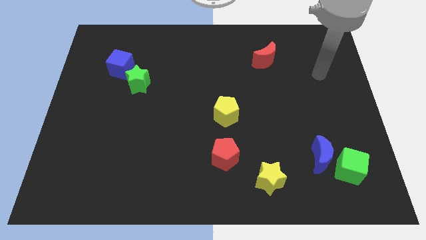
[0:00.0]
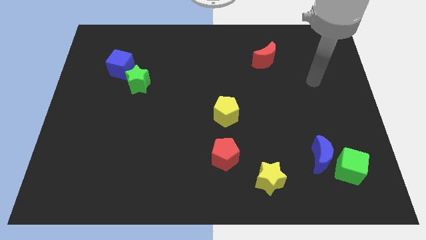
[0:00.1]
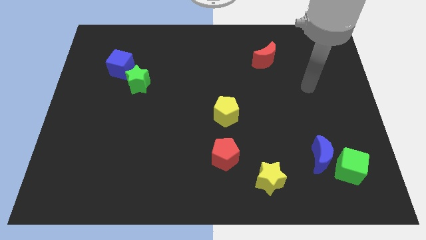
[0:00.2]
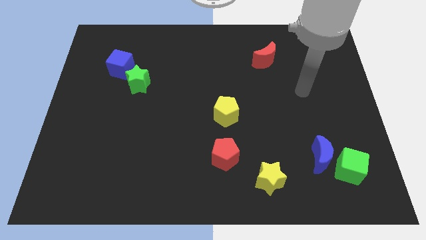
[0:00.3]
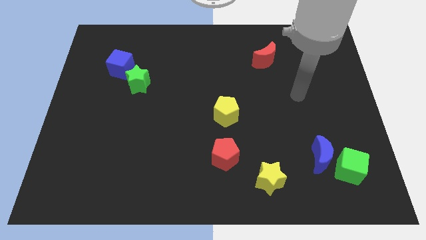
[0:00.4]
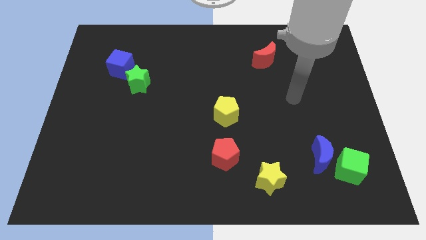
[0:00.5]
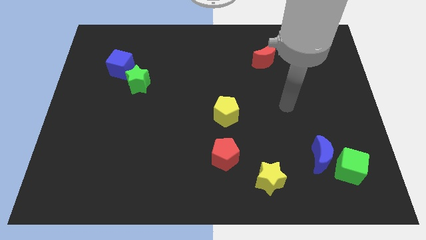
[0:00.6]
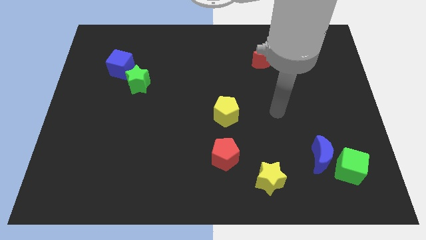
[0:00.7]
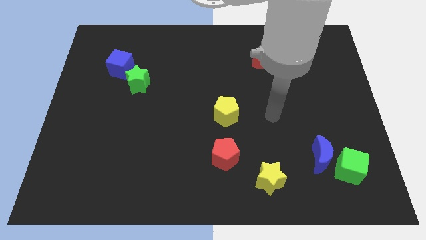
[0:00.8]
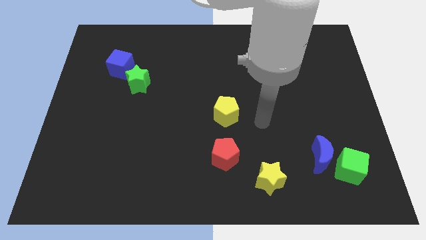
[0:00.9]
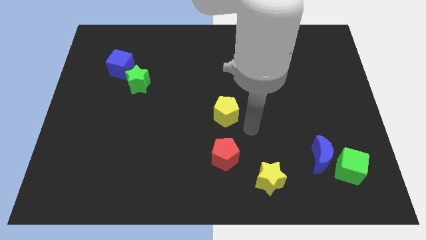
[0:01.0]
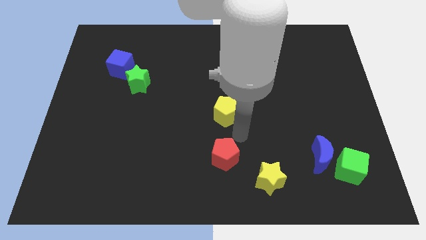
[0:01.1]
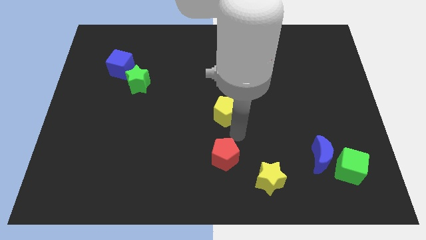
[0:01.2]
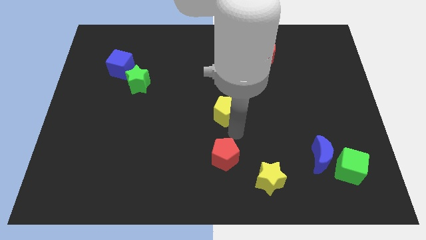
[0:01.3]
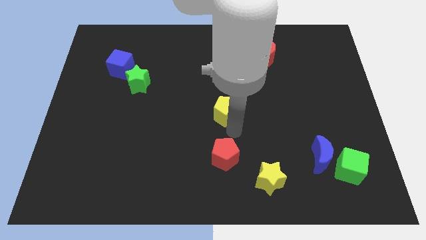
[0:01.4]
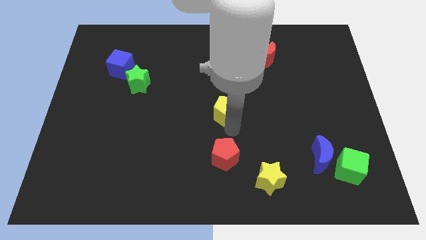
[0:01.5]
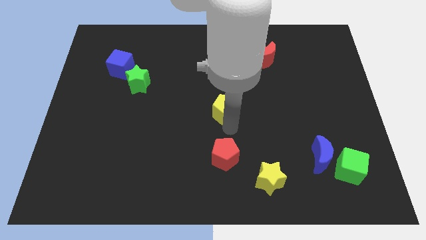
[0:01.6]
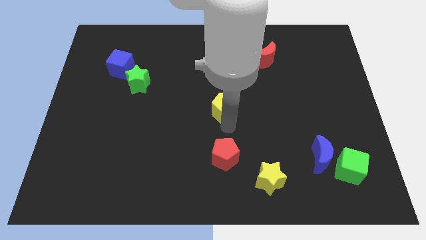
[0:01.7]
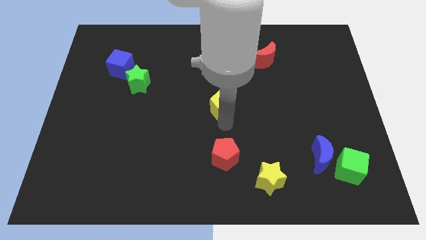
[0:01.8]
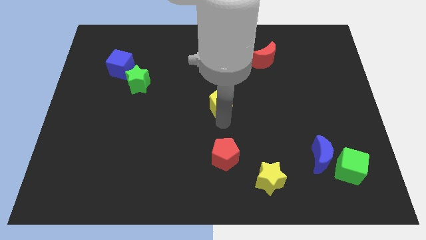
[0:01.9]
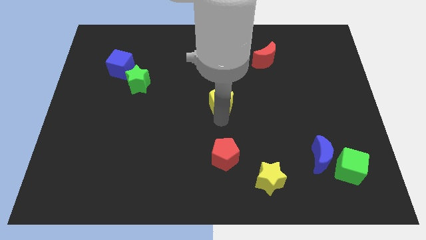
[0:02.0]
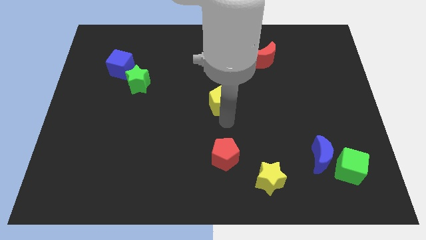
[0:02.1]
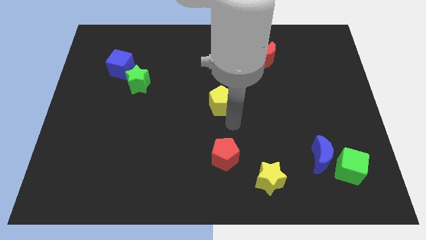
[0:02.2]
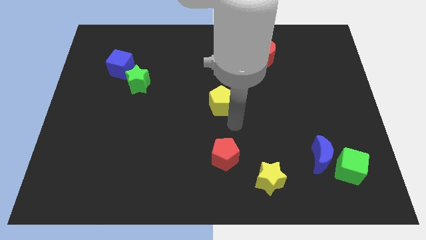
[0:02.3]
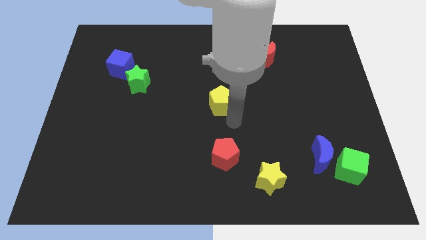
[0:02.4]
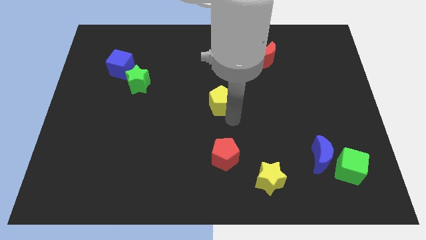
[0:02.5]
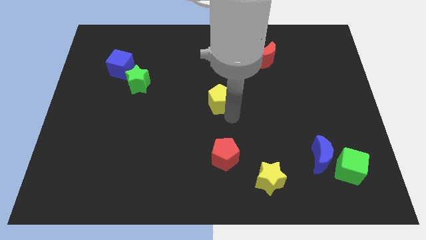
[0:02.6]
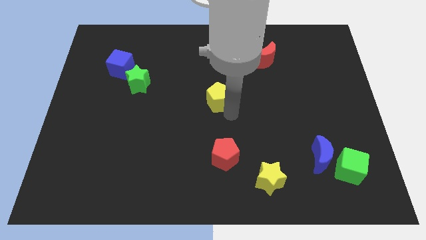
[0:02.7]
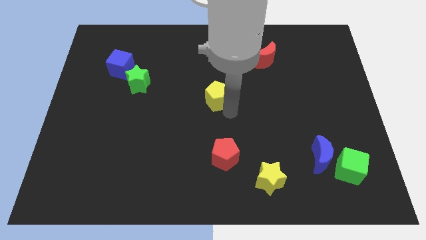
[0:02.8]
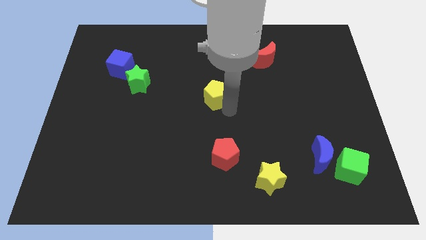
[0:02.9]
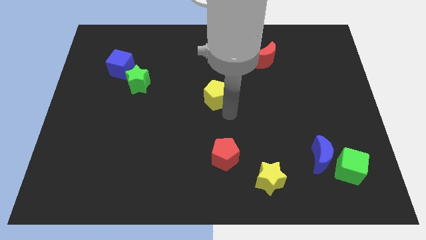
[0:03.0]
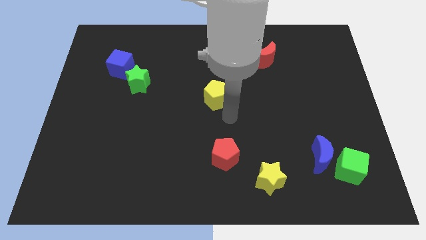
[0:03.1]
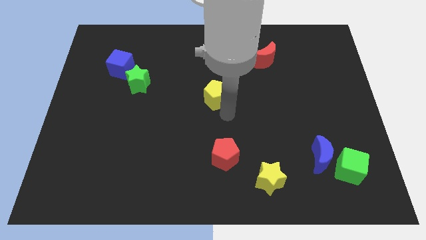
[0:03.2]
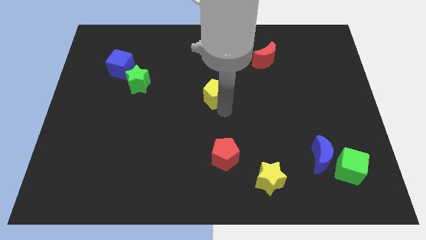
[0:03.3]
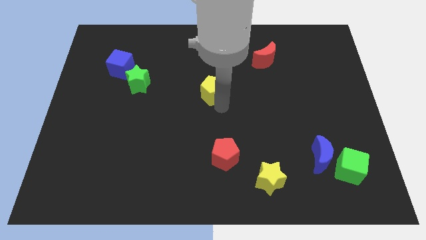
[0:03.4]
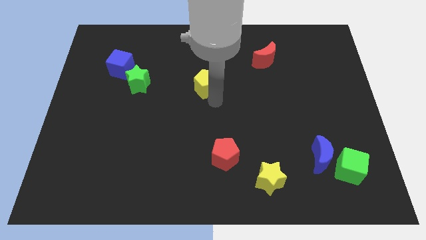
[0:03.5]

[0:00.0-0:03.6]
move the yellow pentagon a little bit up

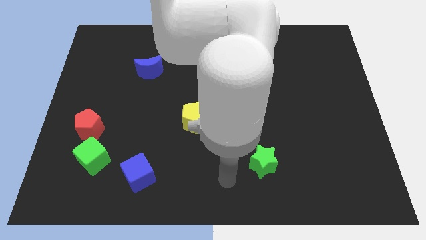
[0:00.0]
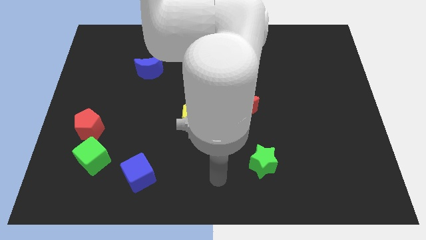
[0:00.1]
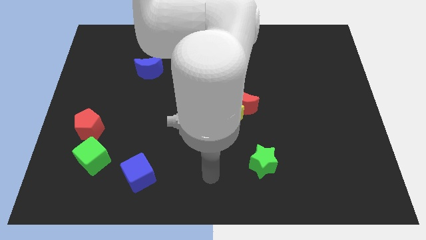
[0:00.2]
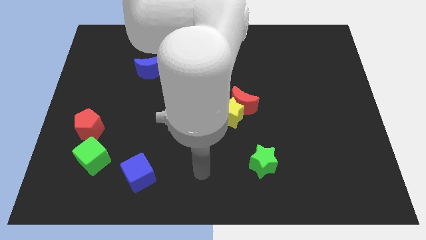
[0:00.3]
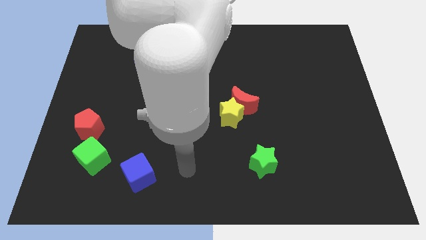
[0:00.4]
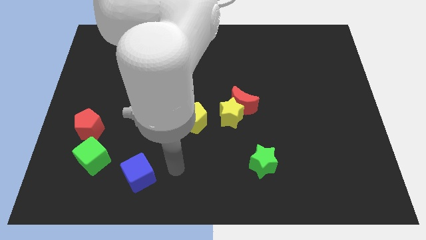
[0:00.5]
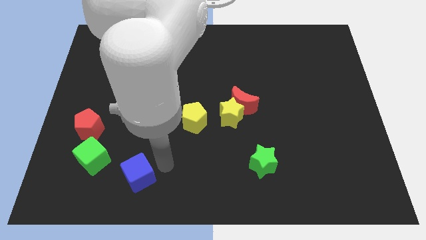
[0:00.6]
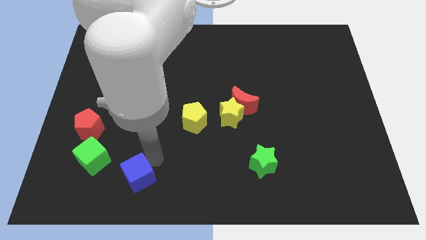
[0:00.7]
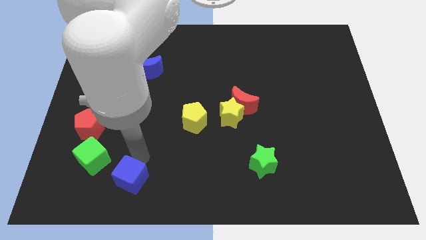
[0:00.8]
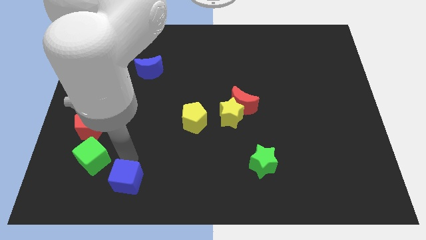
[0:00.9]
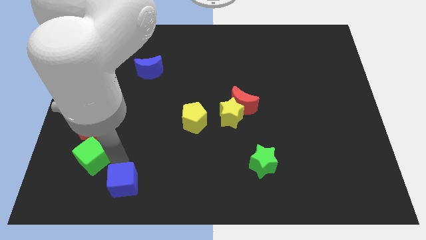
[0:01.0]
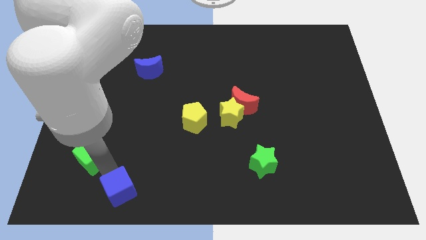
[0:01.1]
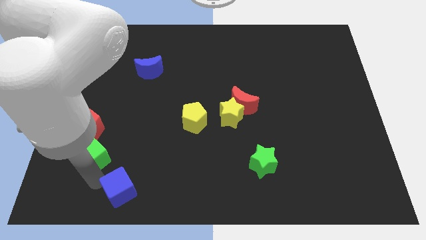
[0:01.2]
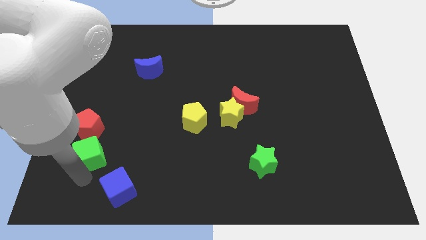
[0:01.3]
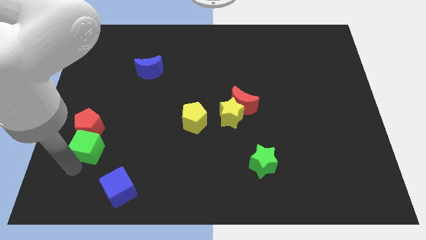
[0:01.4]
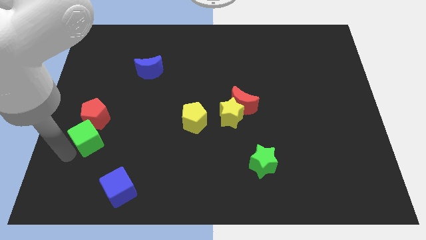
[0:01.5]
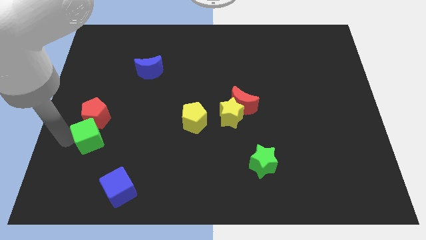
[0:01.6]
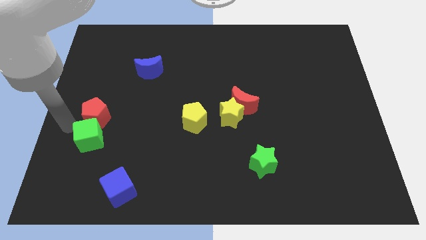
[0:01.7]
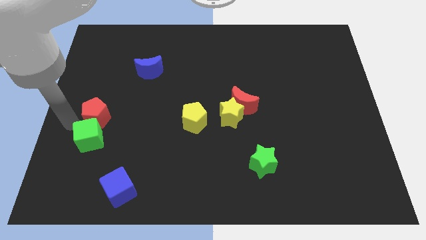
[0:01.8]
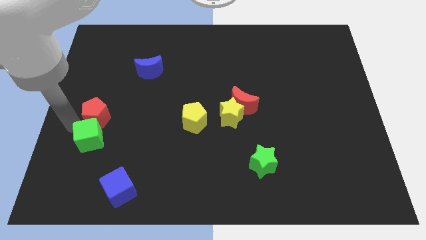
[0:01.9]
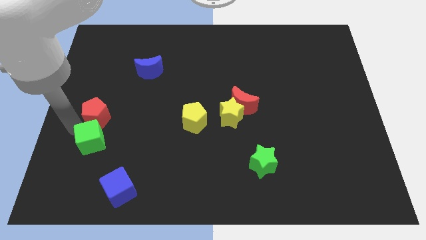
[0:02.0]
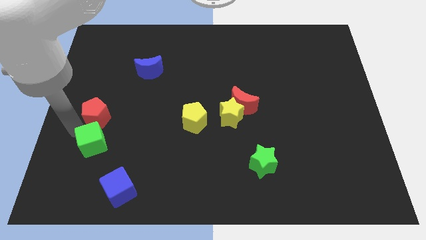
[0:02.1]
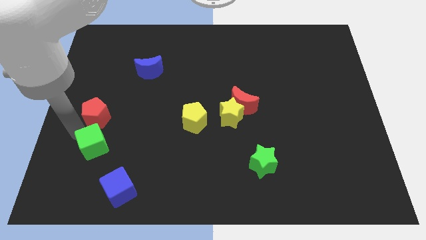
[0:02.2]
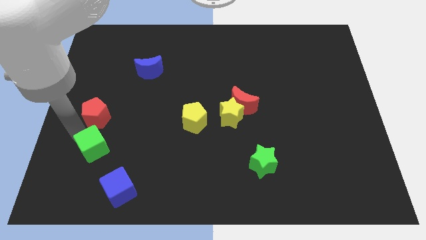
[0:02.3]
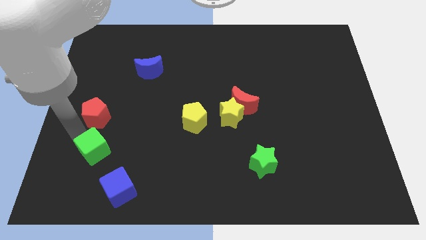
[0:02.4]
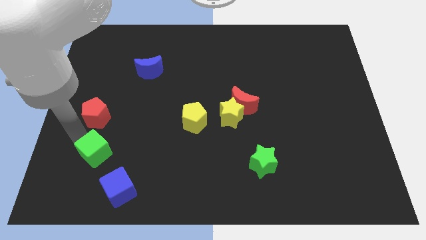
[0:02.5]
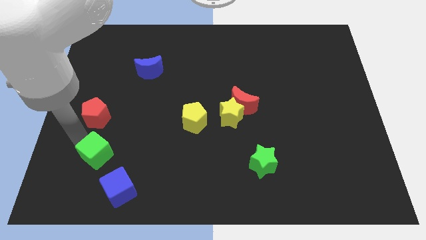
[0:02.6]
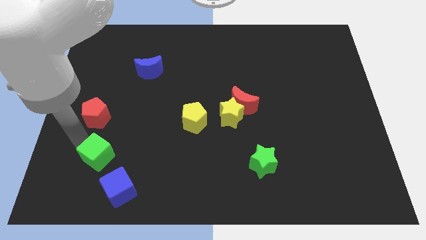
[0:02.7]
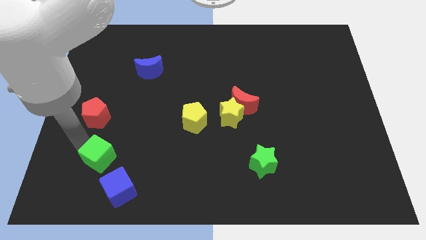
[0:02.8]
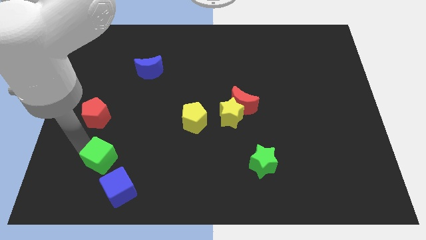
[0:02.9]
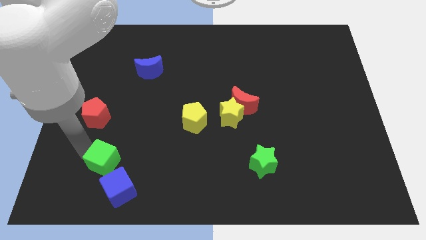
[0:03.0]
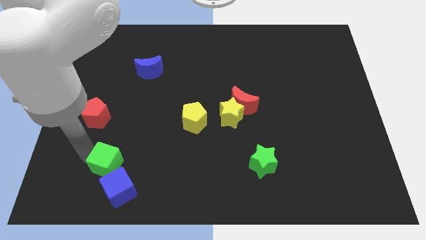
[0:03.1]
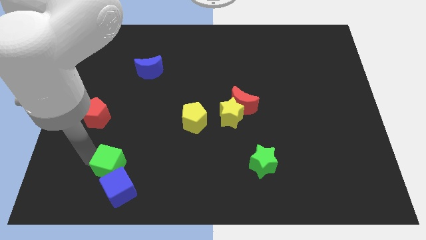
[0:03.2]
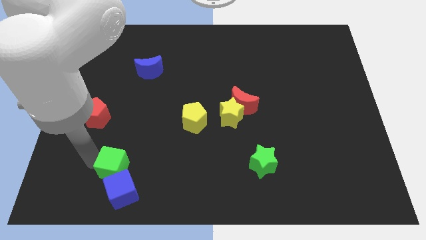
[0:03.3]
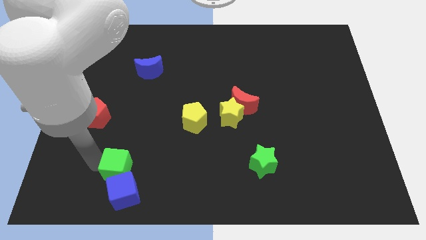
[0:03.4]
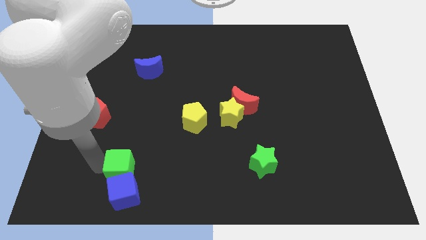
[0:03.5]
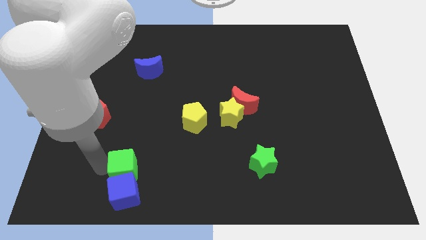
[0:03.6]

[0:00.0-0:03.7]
push the green cube a little bit to the right

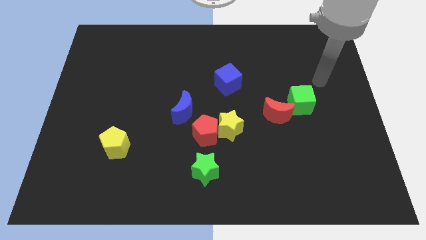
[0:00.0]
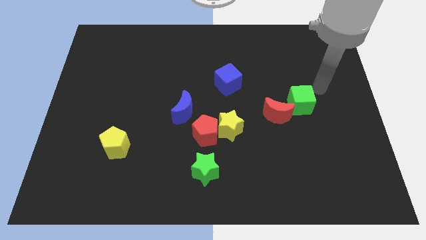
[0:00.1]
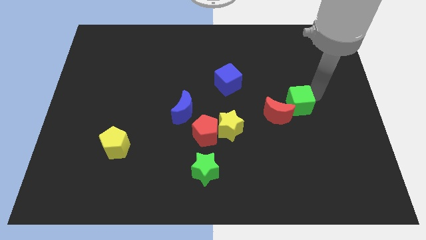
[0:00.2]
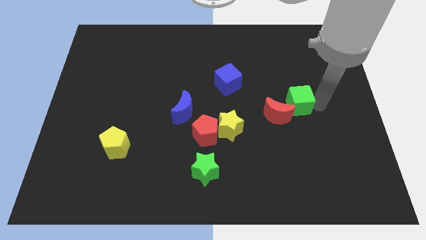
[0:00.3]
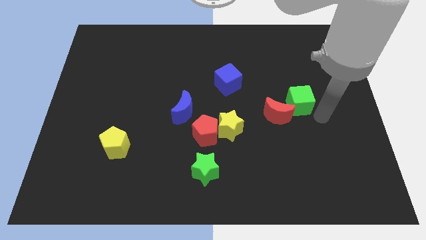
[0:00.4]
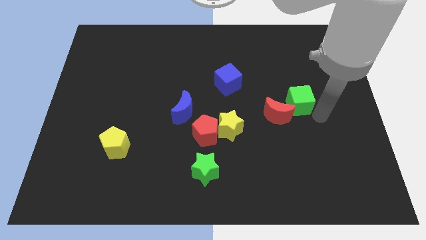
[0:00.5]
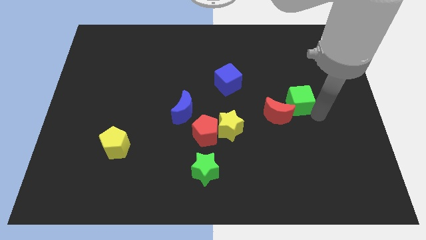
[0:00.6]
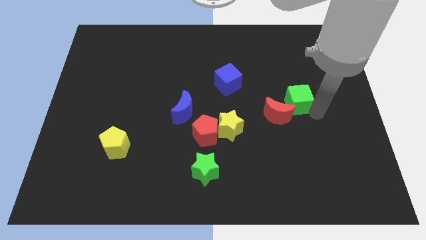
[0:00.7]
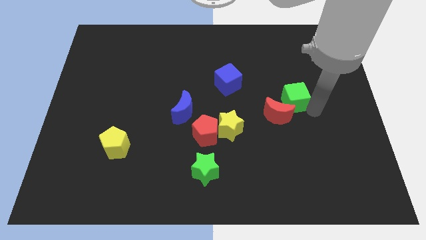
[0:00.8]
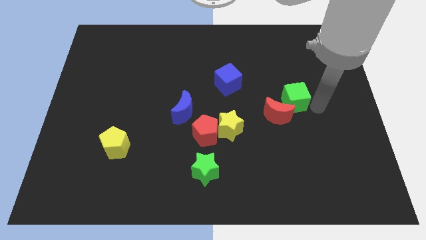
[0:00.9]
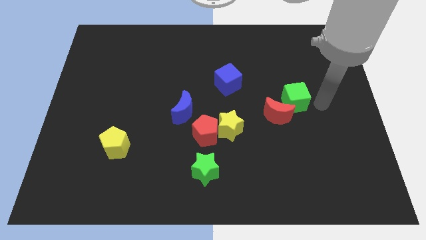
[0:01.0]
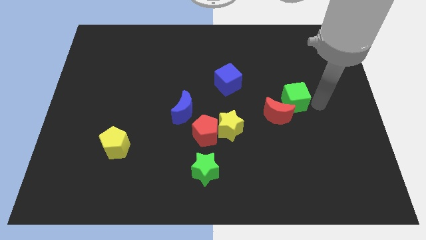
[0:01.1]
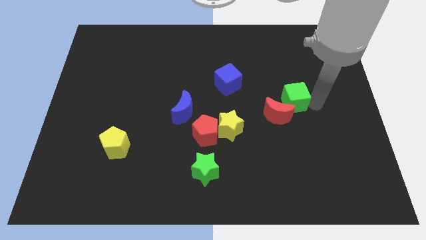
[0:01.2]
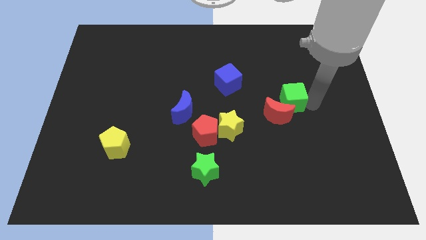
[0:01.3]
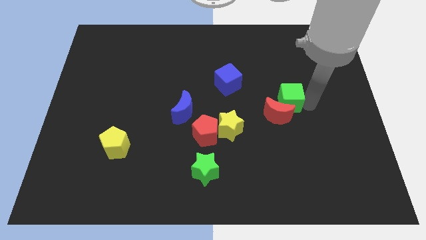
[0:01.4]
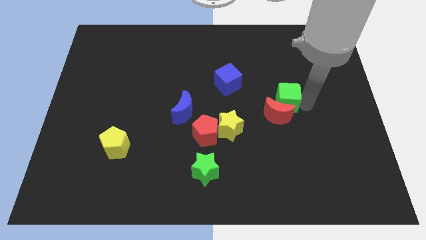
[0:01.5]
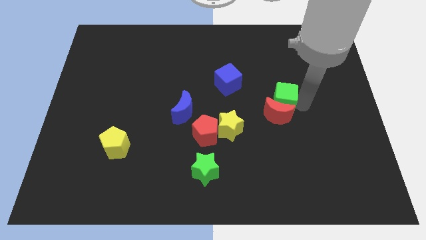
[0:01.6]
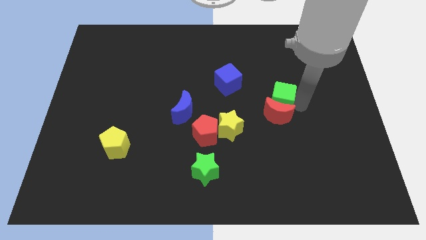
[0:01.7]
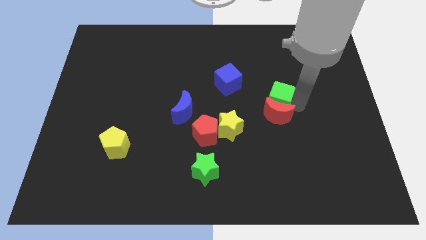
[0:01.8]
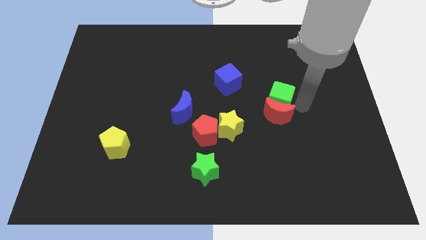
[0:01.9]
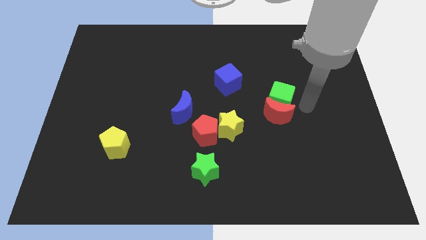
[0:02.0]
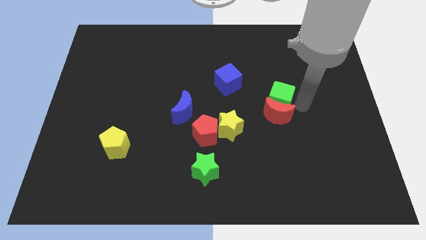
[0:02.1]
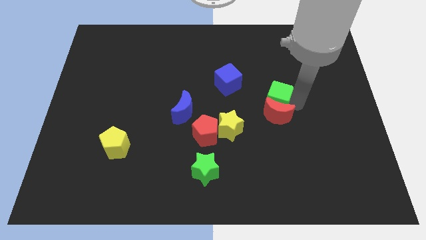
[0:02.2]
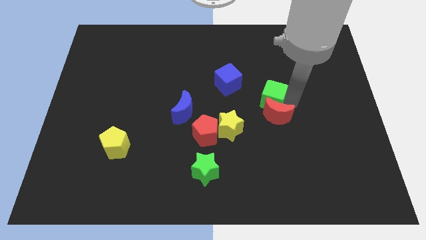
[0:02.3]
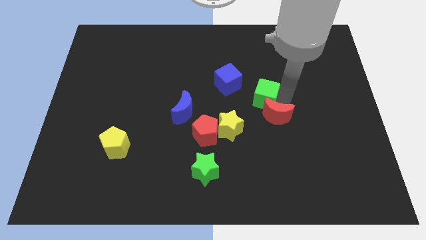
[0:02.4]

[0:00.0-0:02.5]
slightly push the green cube left
